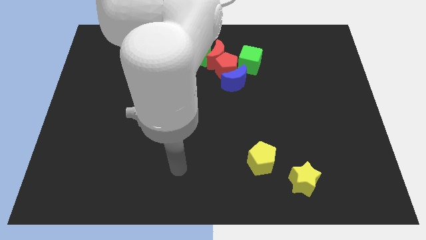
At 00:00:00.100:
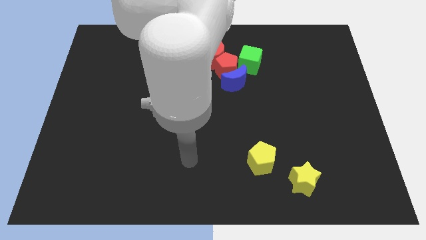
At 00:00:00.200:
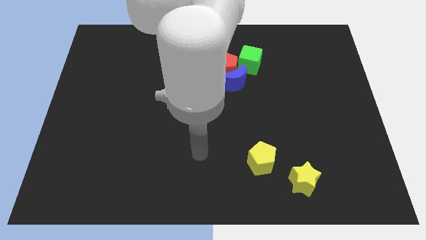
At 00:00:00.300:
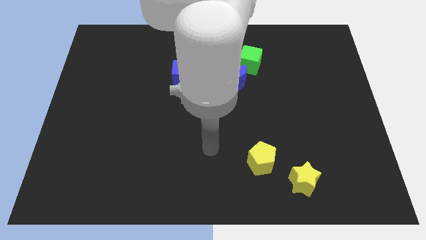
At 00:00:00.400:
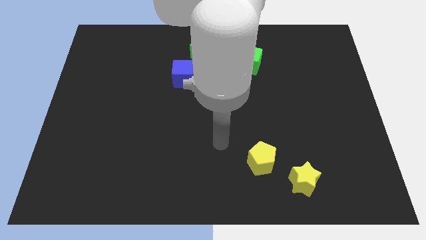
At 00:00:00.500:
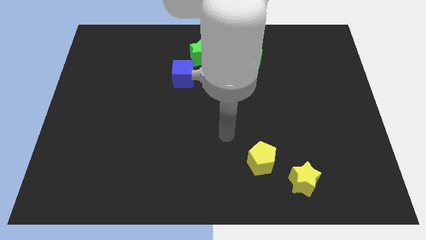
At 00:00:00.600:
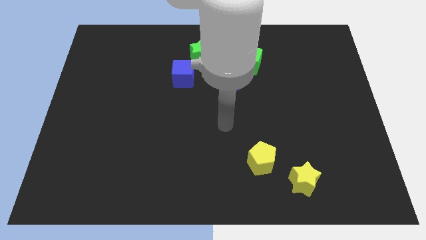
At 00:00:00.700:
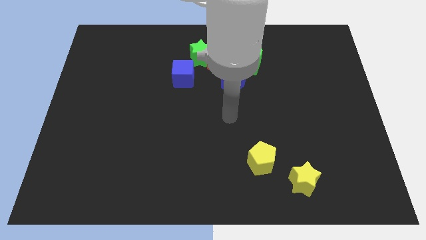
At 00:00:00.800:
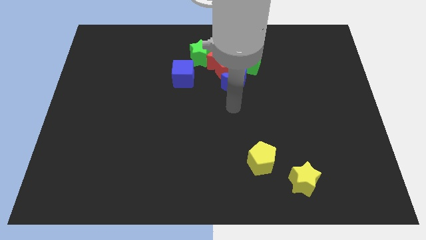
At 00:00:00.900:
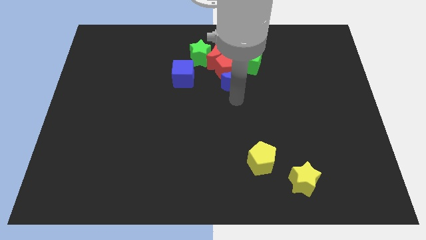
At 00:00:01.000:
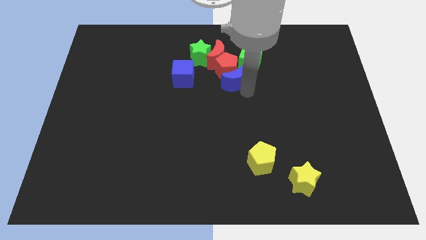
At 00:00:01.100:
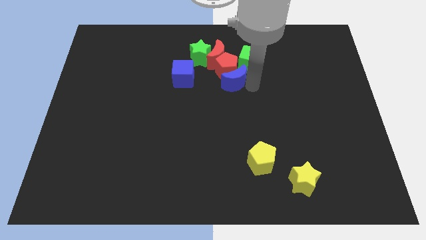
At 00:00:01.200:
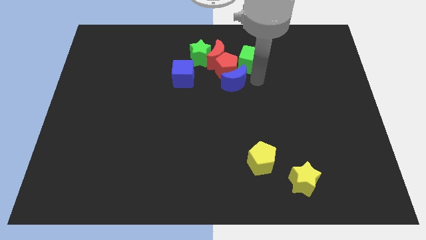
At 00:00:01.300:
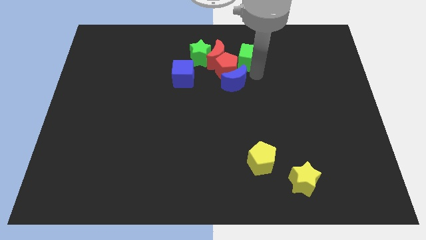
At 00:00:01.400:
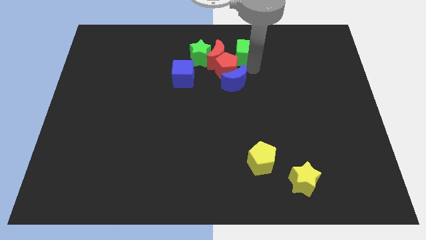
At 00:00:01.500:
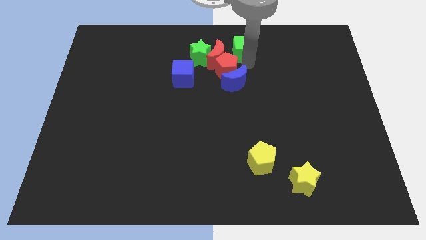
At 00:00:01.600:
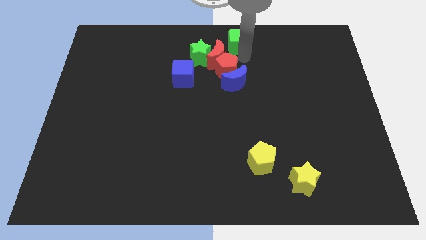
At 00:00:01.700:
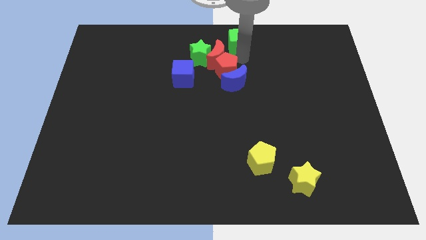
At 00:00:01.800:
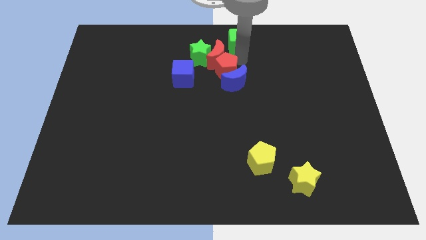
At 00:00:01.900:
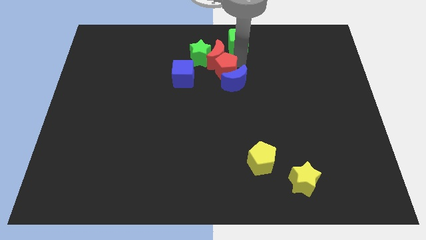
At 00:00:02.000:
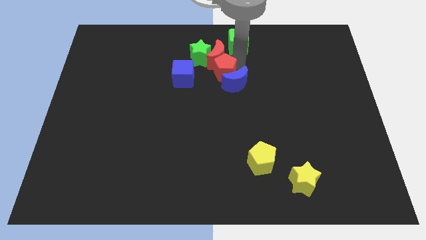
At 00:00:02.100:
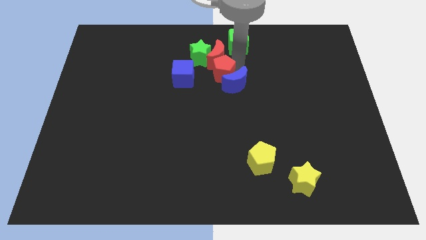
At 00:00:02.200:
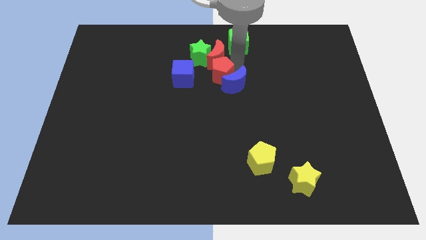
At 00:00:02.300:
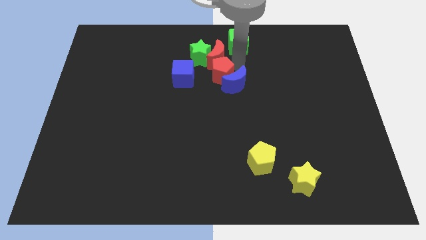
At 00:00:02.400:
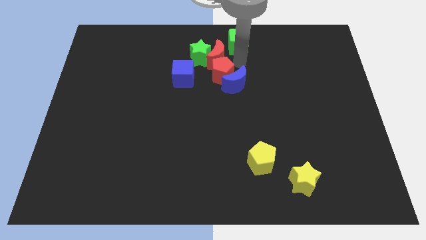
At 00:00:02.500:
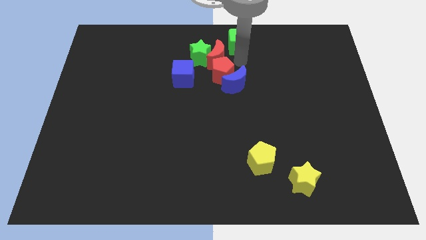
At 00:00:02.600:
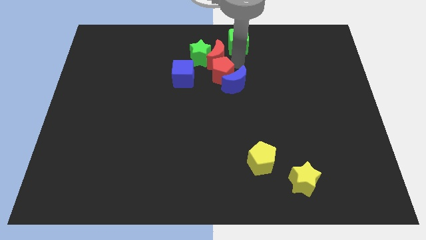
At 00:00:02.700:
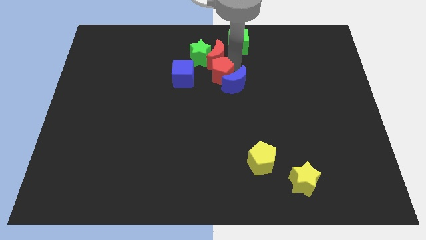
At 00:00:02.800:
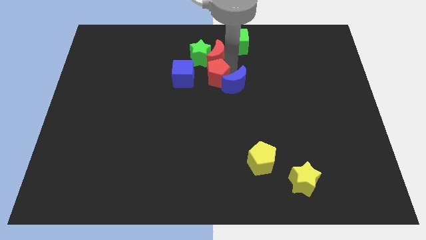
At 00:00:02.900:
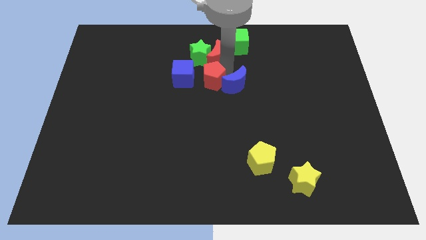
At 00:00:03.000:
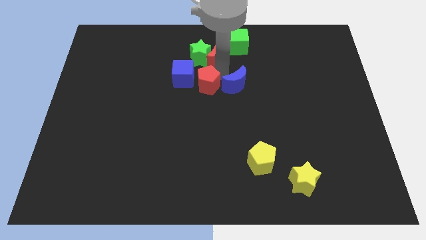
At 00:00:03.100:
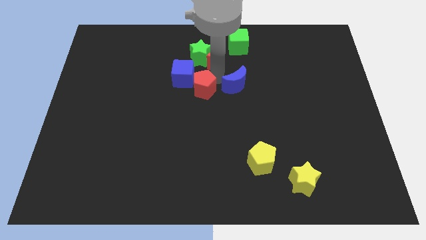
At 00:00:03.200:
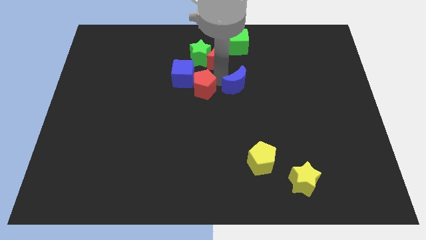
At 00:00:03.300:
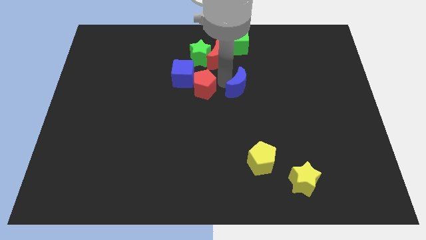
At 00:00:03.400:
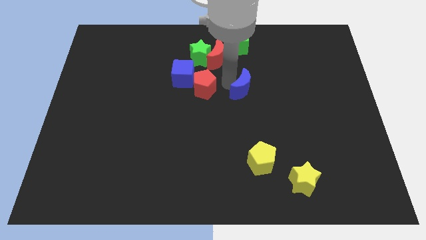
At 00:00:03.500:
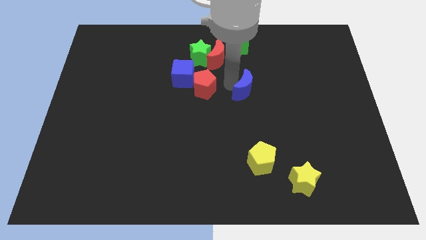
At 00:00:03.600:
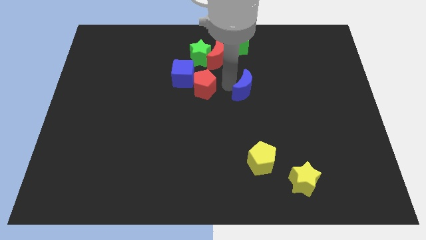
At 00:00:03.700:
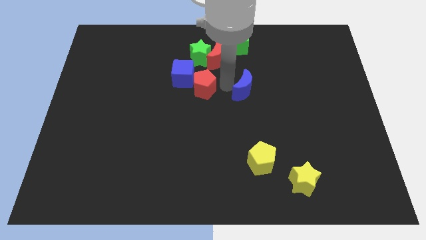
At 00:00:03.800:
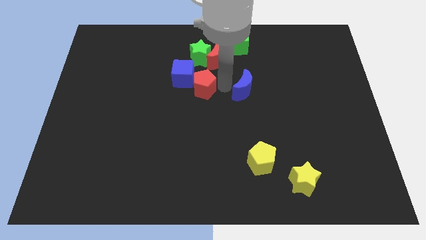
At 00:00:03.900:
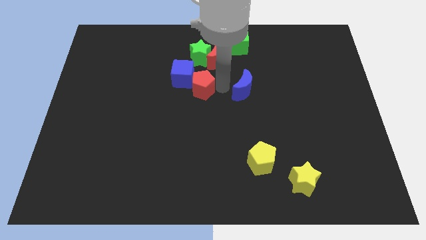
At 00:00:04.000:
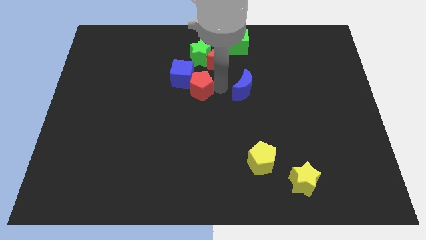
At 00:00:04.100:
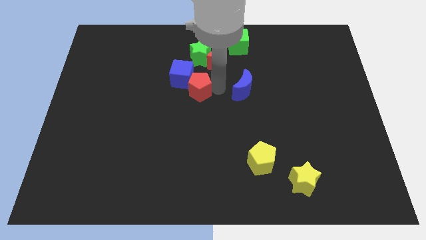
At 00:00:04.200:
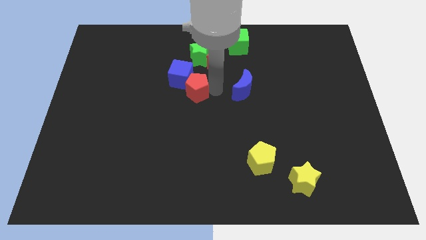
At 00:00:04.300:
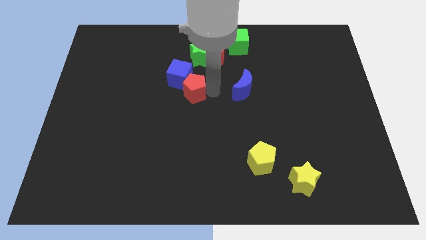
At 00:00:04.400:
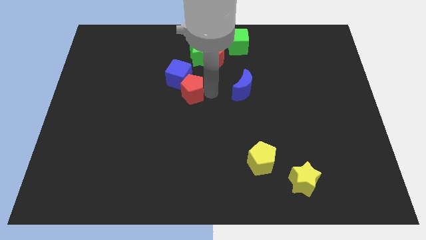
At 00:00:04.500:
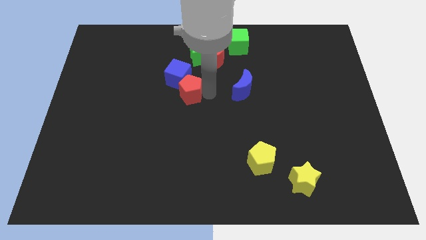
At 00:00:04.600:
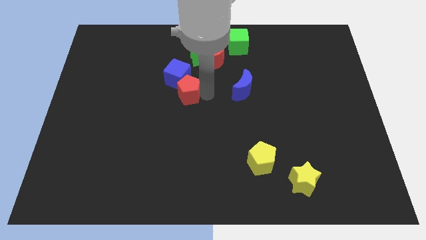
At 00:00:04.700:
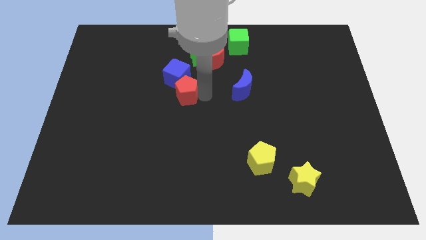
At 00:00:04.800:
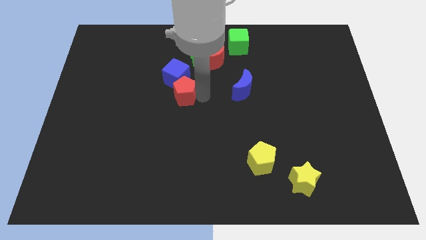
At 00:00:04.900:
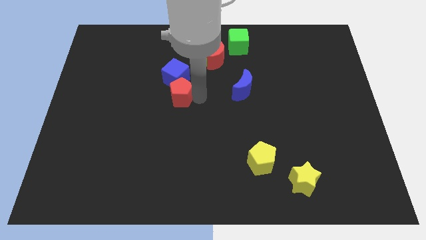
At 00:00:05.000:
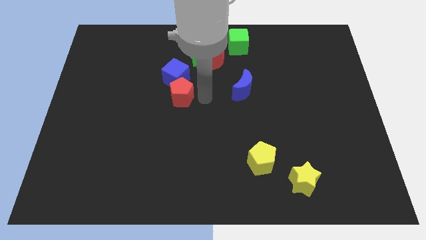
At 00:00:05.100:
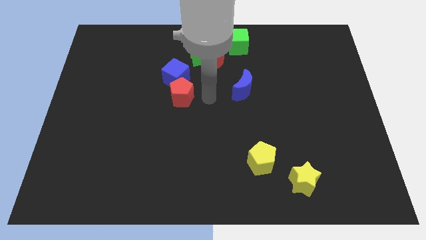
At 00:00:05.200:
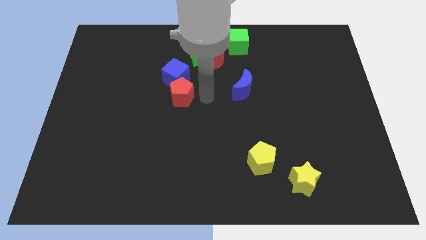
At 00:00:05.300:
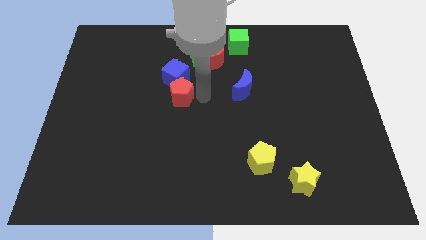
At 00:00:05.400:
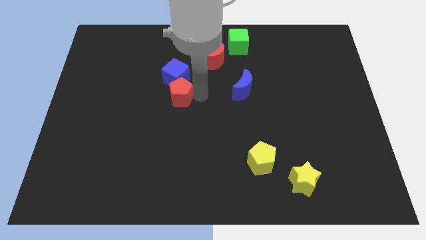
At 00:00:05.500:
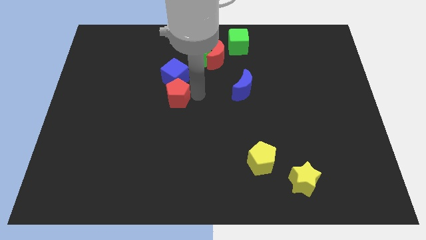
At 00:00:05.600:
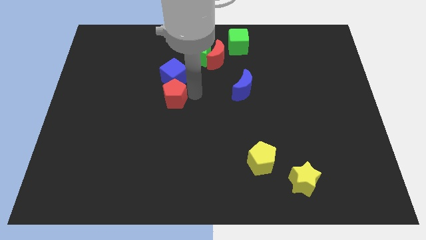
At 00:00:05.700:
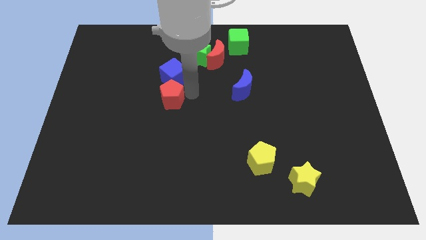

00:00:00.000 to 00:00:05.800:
move the red pentagon to the bottom left of the blue cube

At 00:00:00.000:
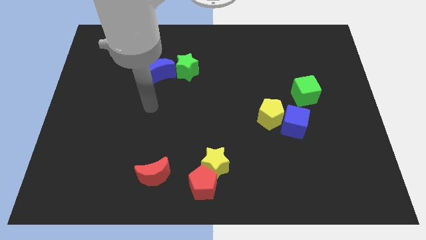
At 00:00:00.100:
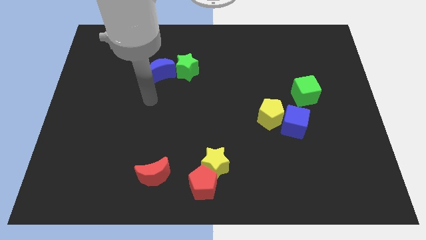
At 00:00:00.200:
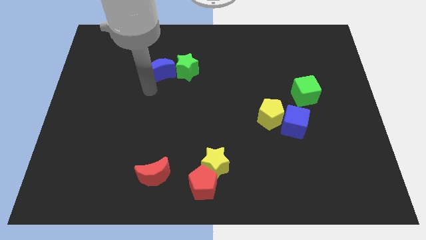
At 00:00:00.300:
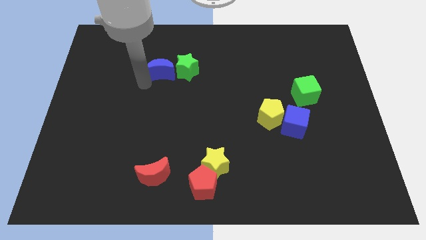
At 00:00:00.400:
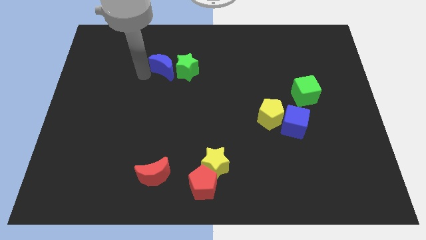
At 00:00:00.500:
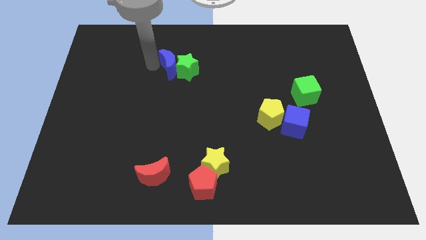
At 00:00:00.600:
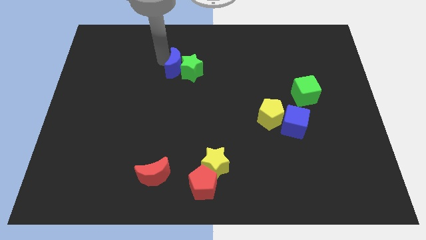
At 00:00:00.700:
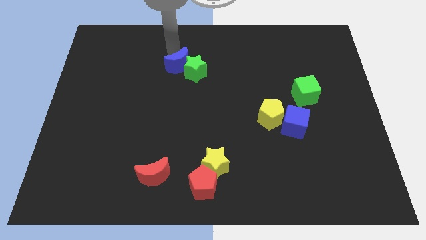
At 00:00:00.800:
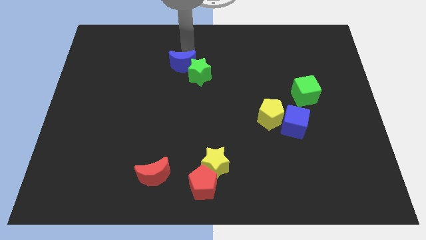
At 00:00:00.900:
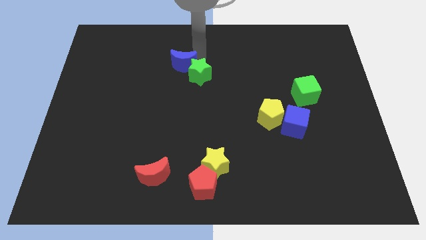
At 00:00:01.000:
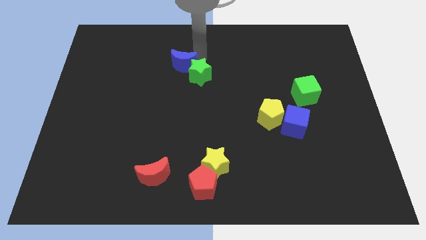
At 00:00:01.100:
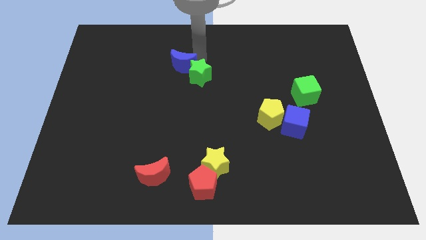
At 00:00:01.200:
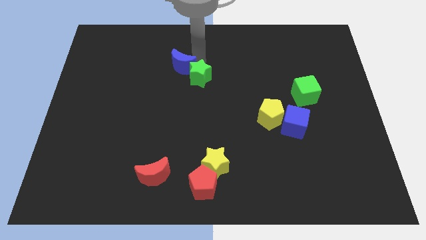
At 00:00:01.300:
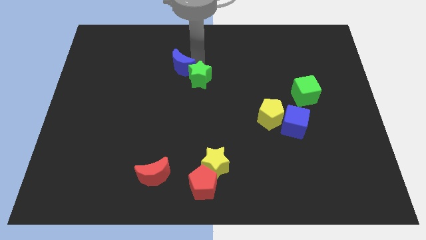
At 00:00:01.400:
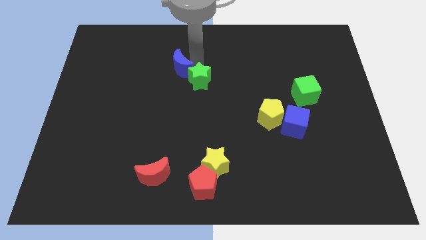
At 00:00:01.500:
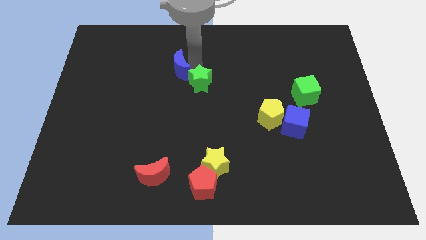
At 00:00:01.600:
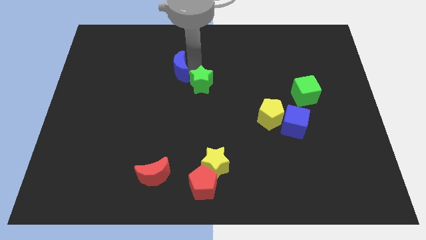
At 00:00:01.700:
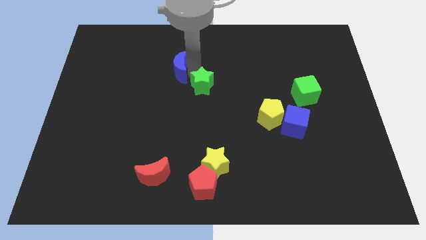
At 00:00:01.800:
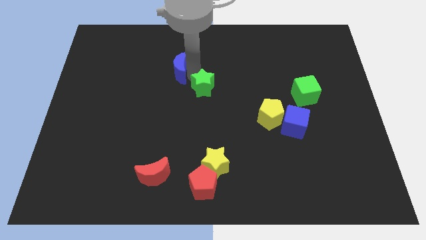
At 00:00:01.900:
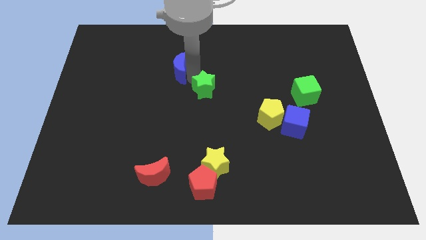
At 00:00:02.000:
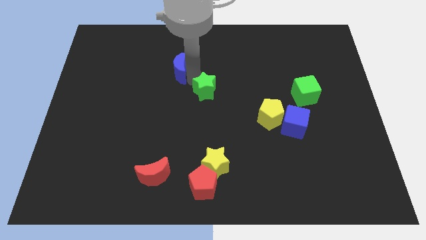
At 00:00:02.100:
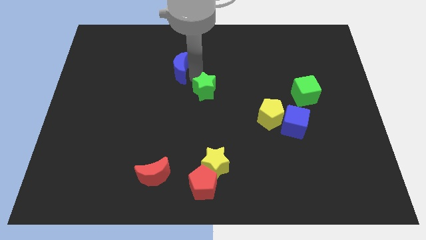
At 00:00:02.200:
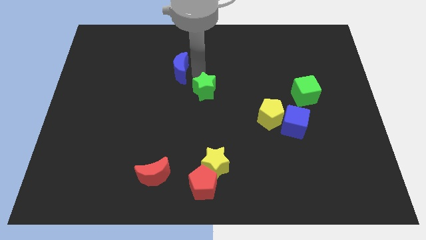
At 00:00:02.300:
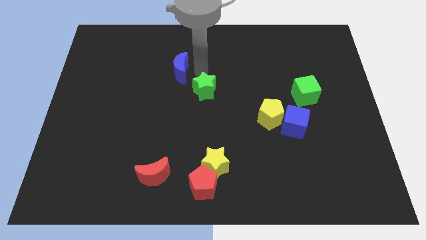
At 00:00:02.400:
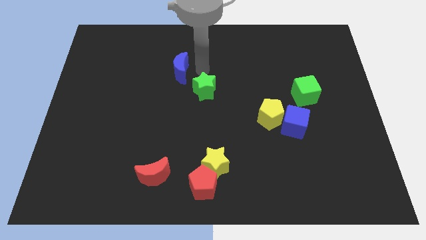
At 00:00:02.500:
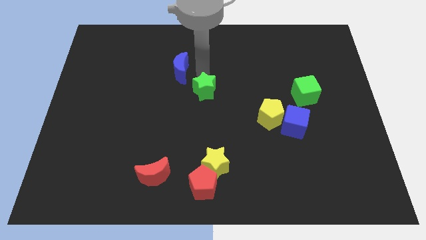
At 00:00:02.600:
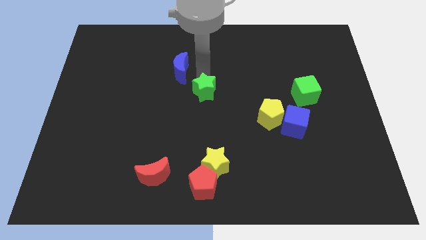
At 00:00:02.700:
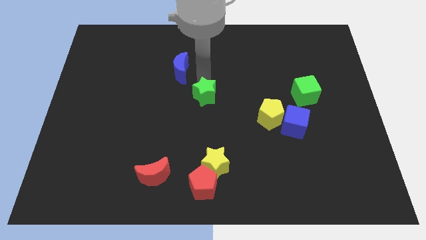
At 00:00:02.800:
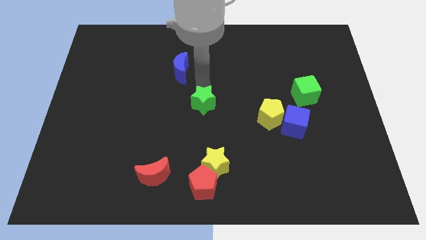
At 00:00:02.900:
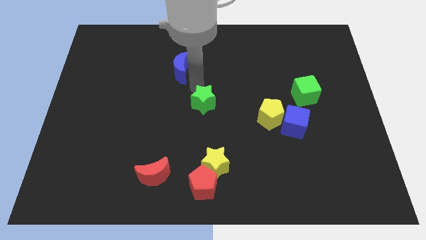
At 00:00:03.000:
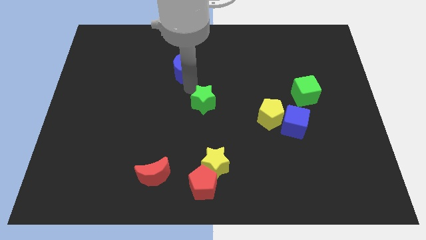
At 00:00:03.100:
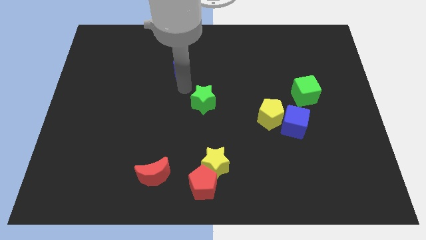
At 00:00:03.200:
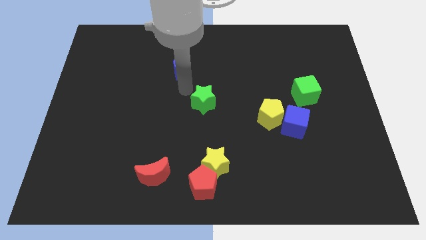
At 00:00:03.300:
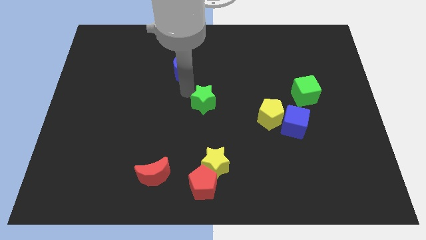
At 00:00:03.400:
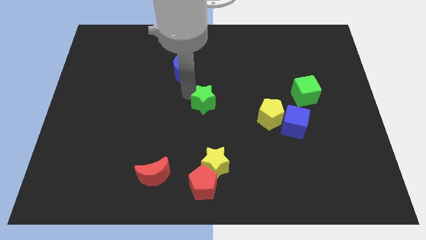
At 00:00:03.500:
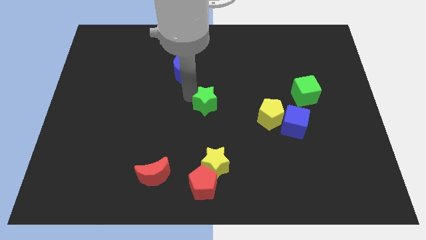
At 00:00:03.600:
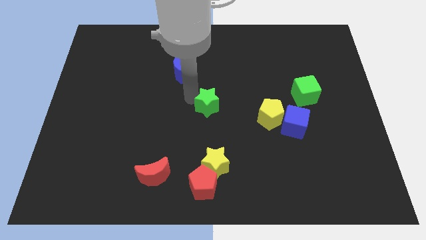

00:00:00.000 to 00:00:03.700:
slide the green star to the left of the yellow pentagon
